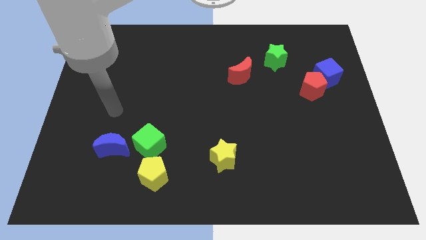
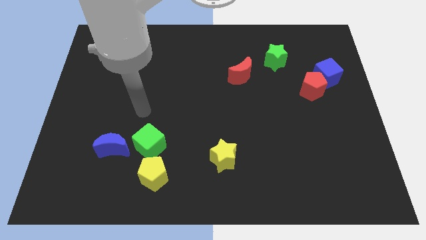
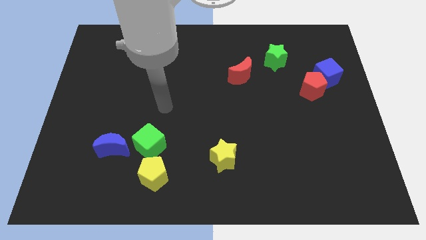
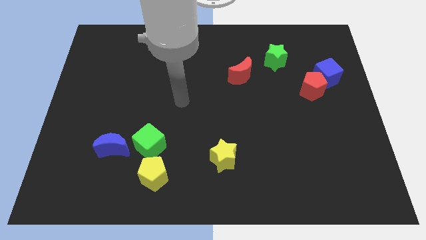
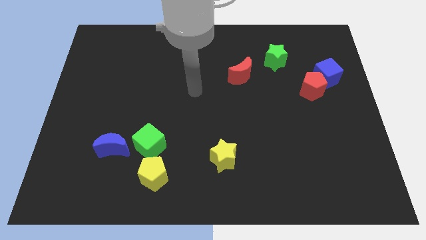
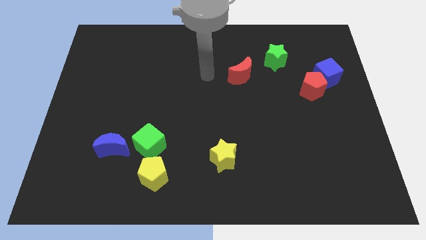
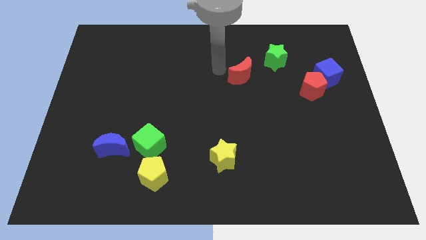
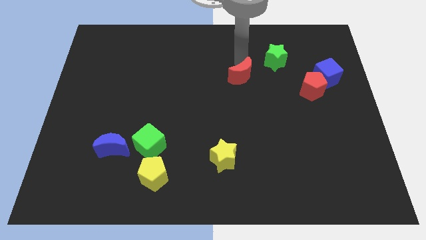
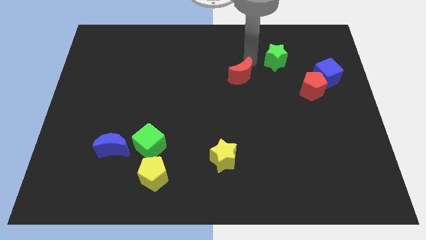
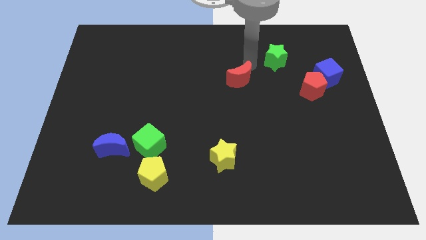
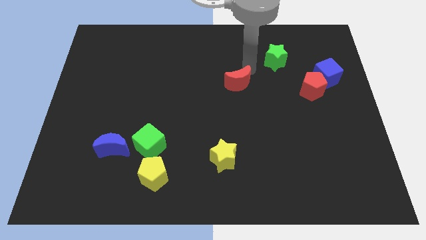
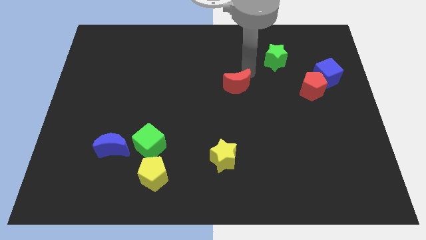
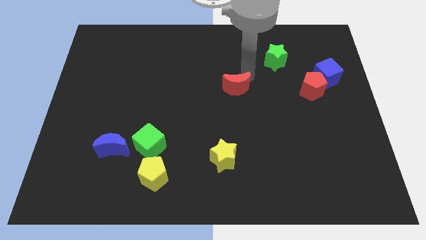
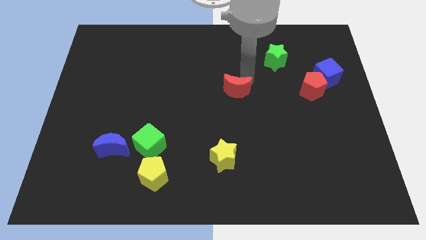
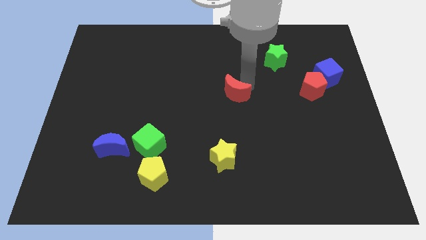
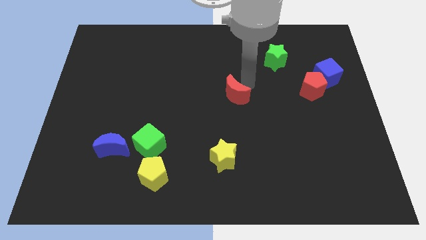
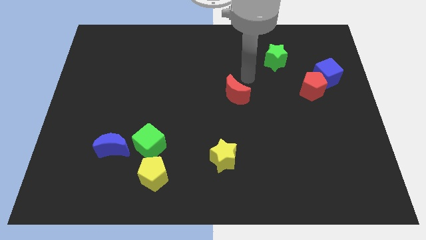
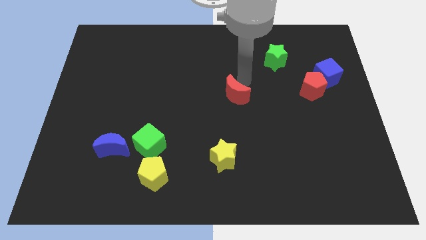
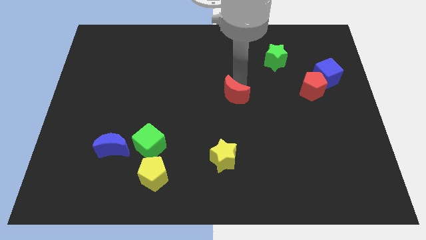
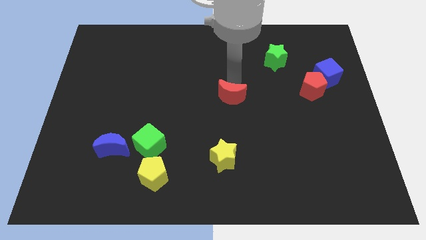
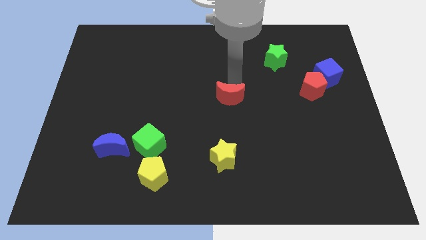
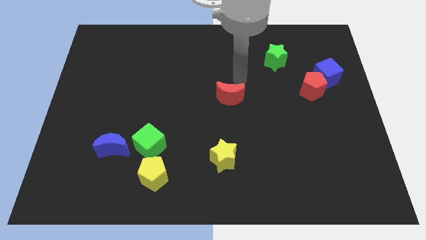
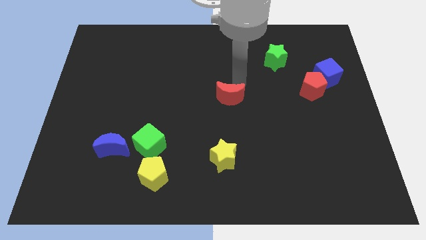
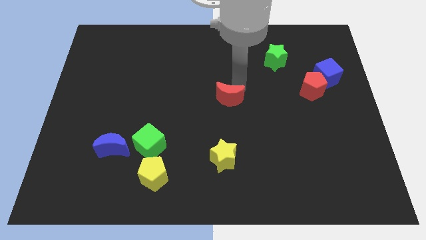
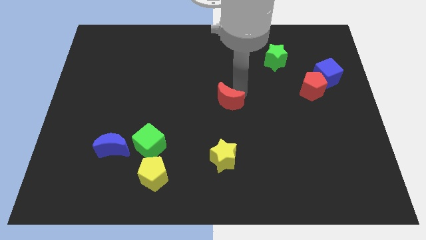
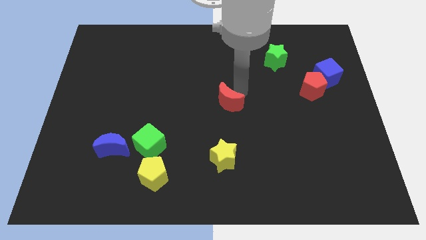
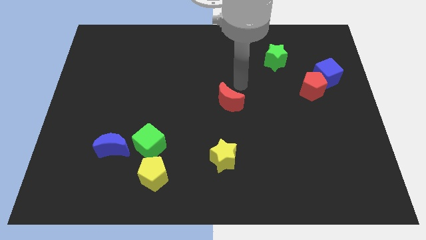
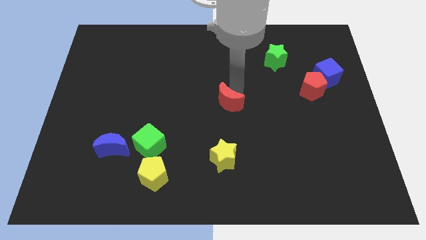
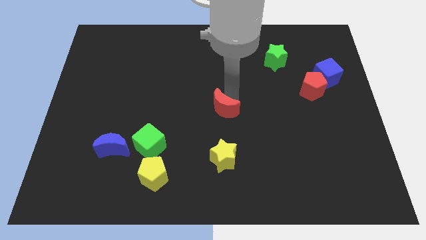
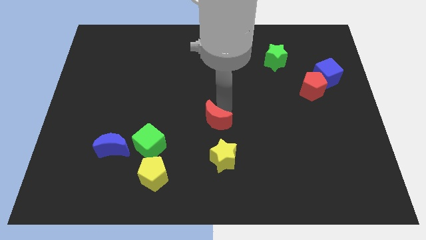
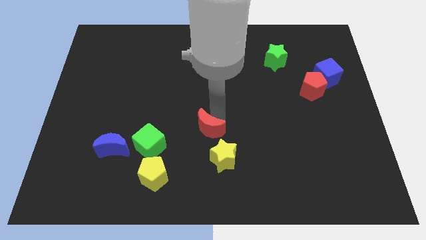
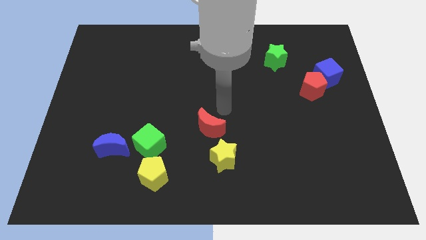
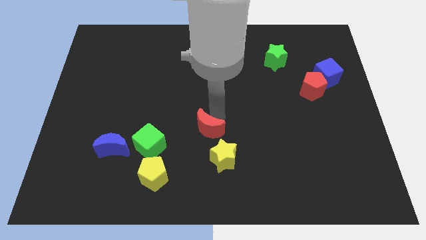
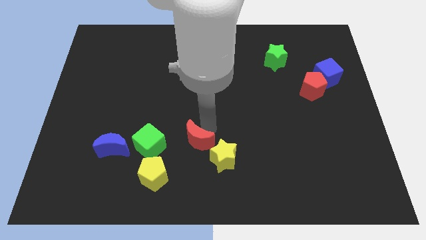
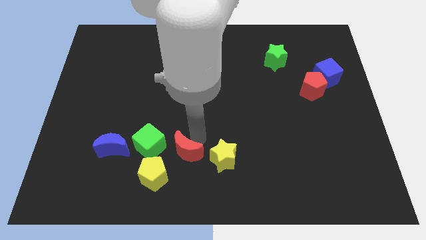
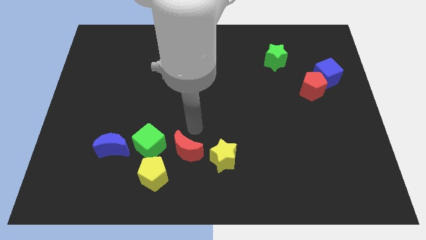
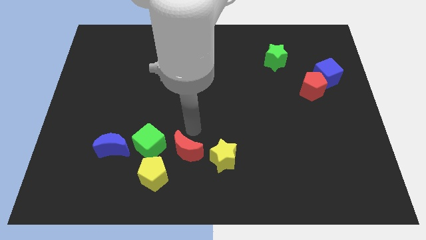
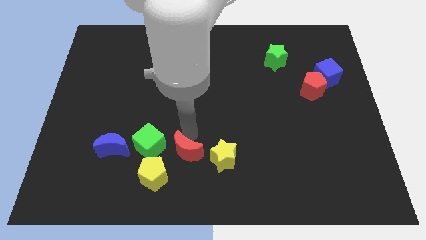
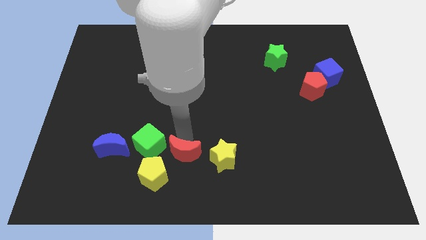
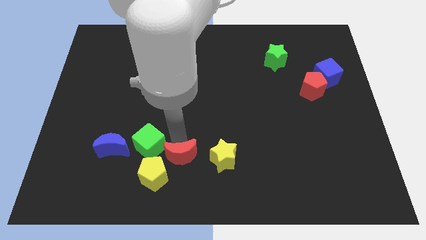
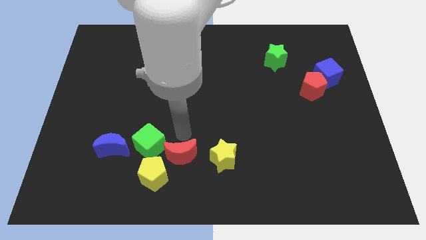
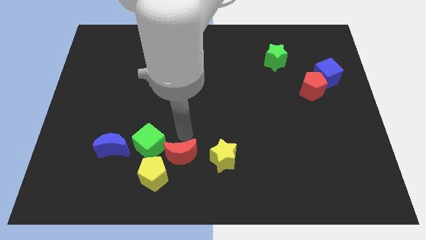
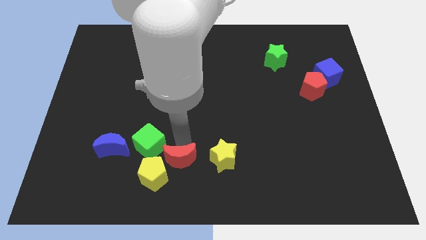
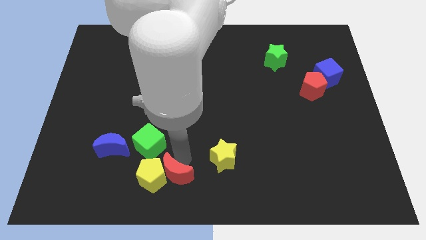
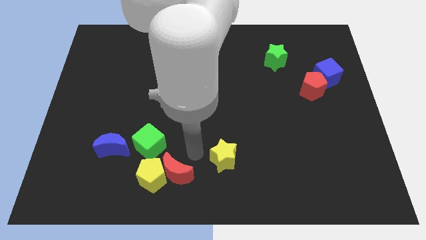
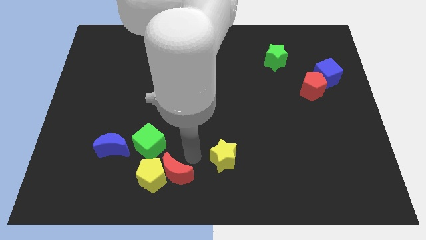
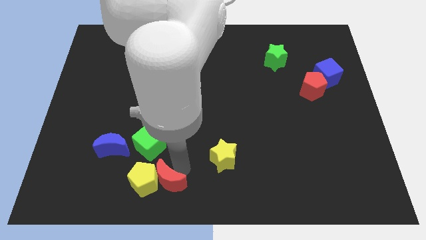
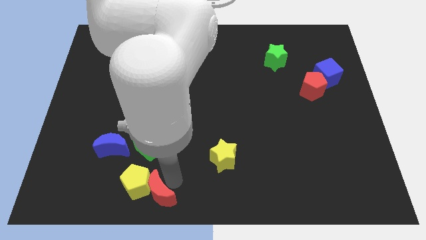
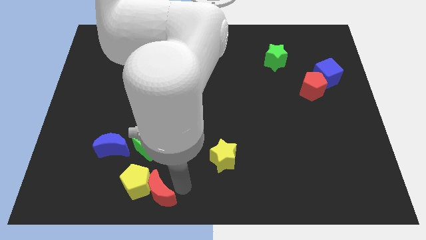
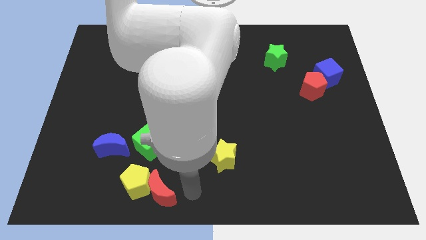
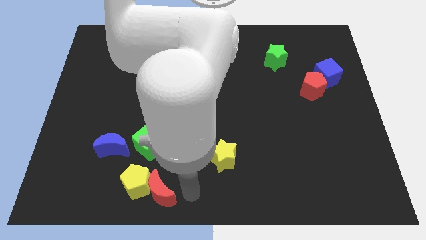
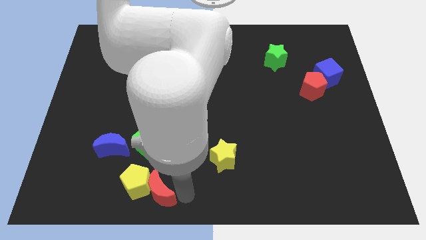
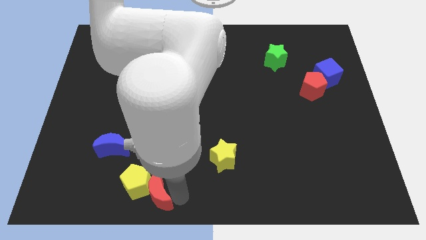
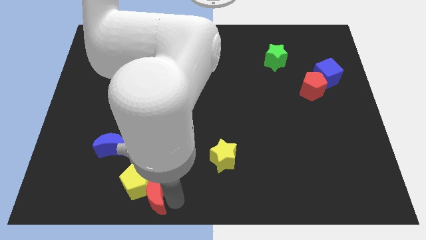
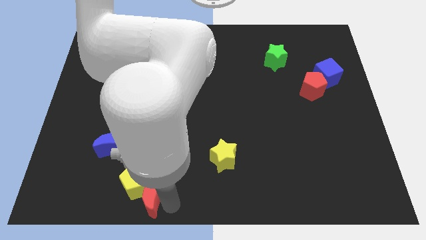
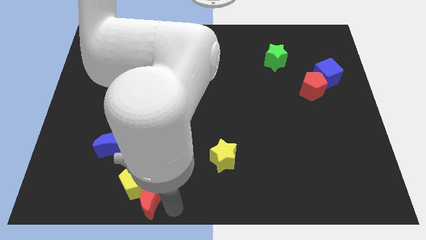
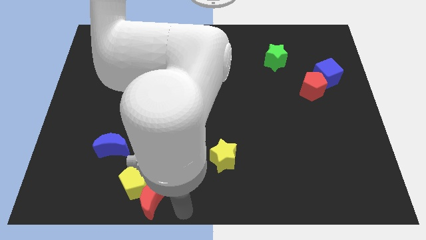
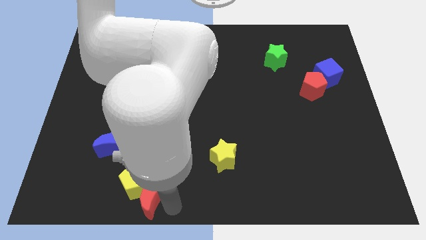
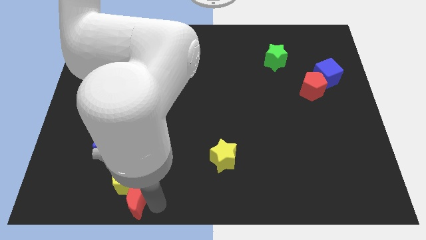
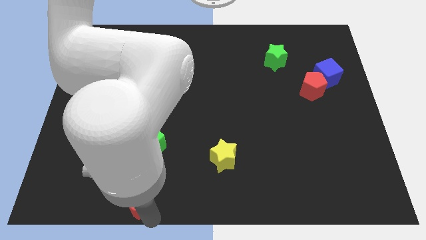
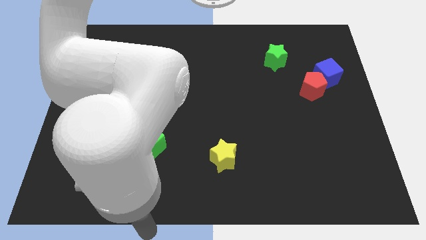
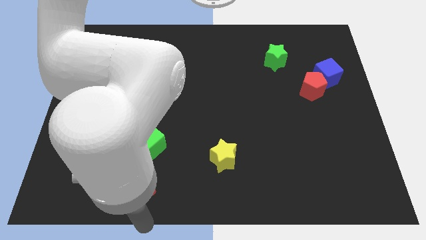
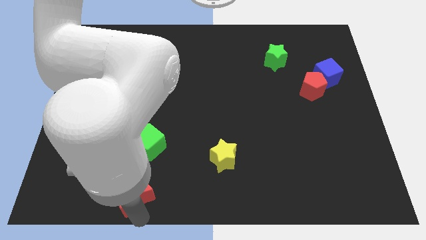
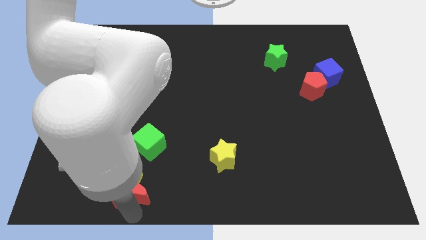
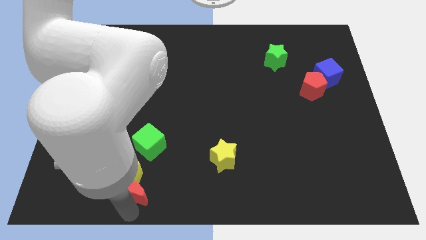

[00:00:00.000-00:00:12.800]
put the red moon diagonally down and to the right of the blue moon

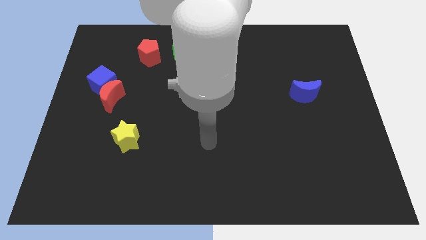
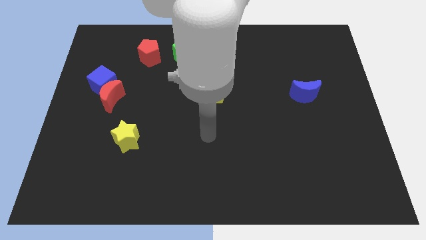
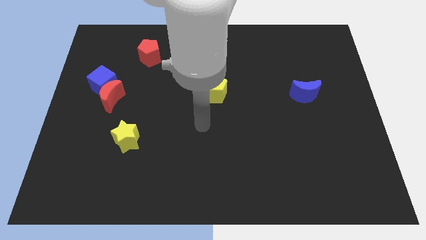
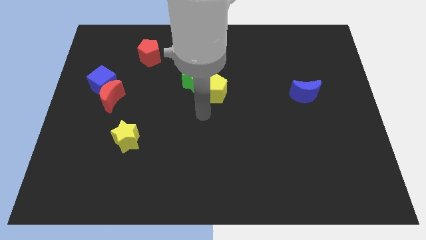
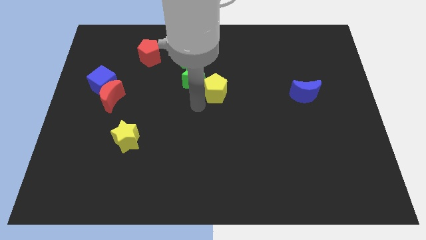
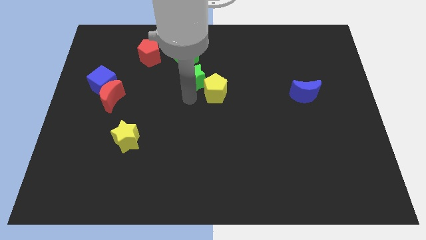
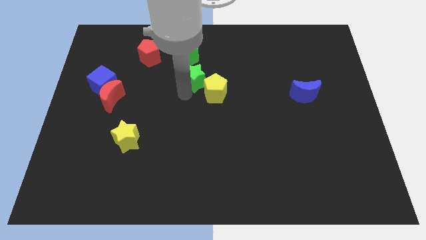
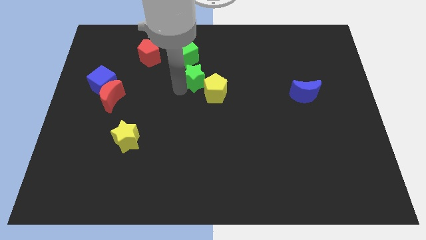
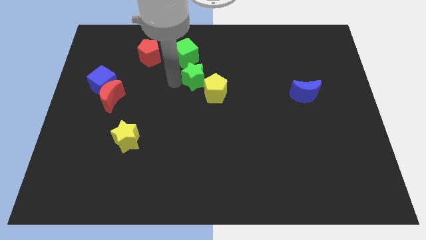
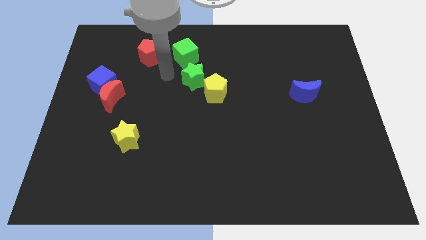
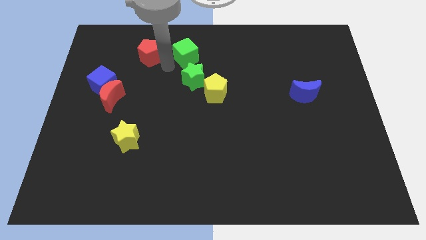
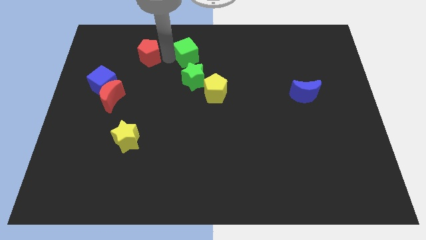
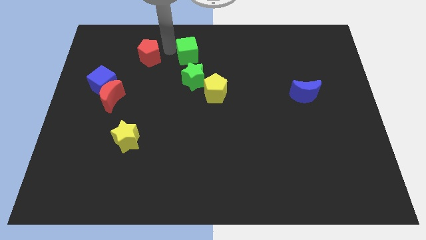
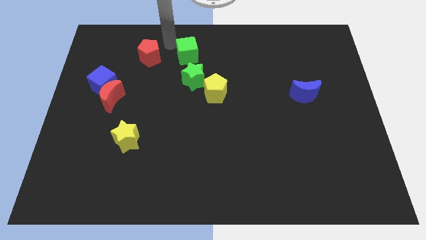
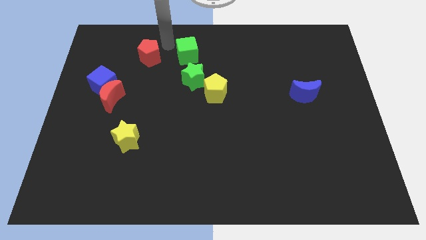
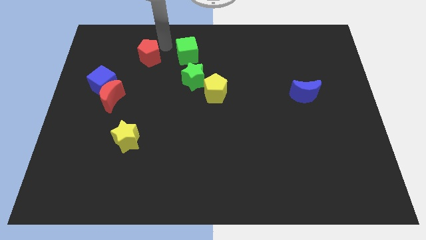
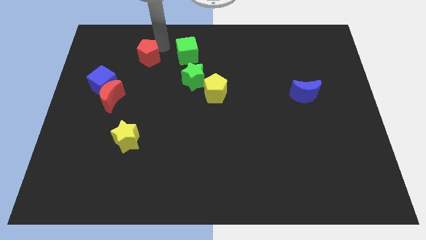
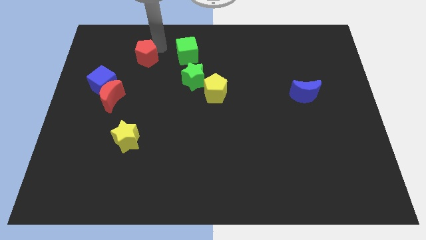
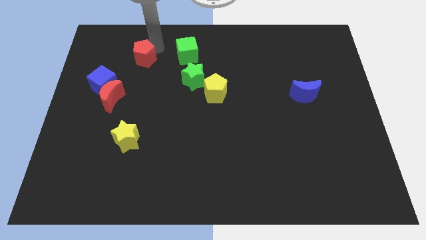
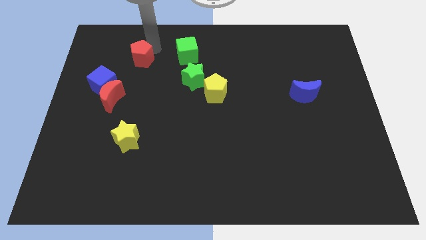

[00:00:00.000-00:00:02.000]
move the red pentagon to the top right of the blue cube
